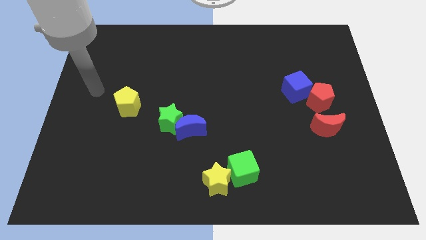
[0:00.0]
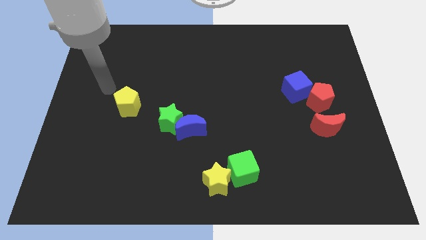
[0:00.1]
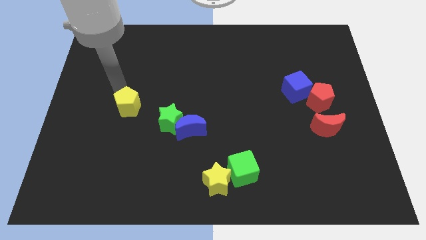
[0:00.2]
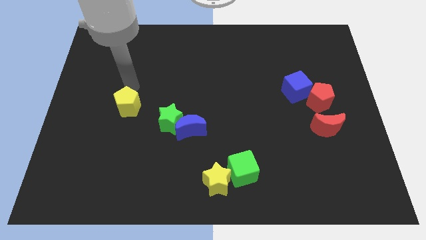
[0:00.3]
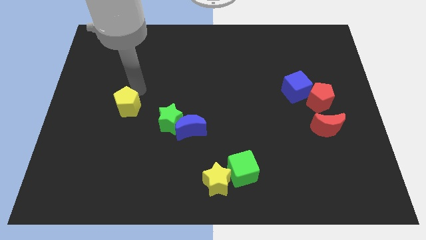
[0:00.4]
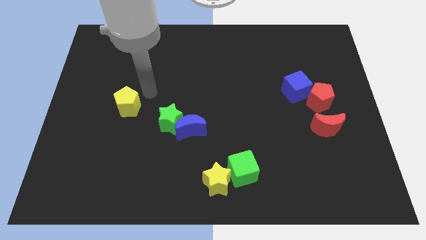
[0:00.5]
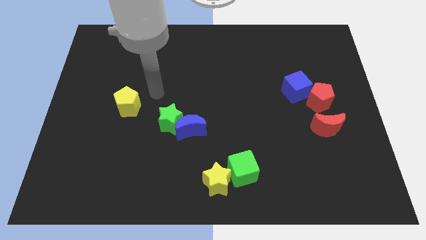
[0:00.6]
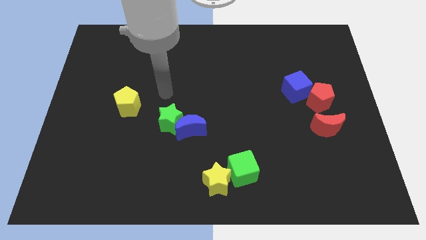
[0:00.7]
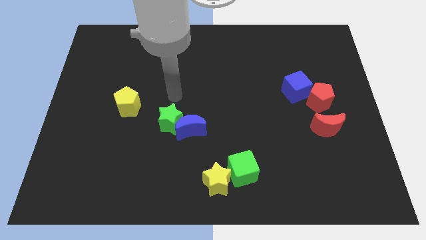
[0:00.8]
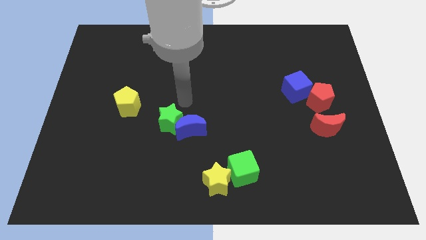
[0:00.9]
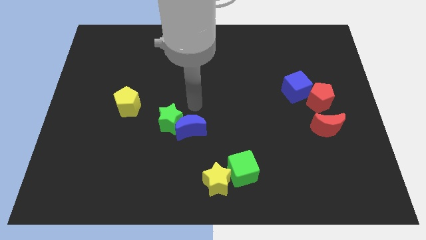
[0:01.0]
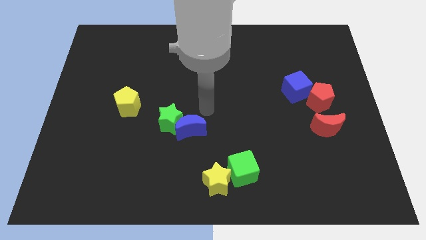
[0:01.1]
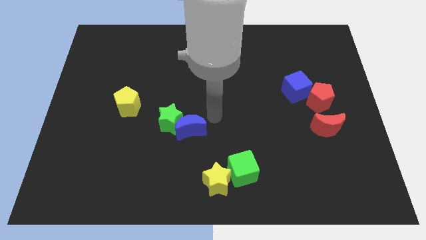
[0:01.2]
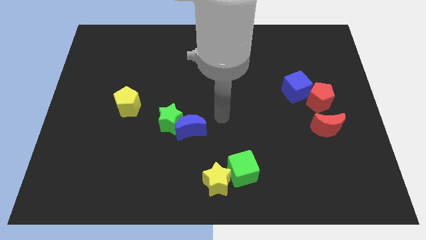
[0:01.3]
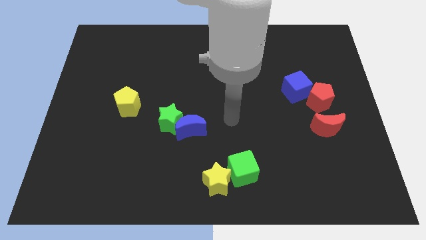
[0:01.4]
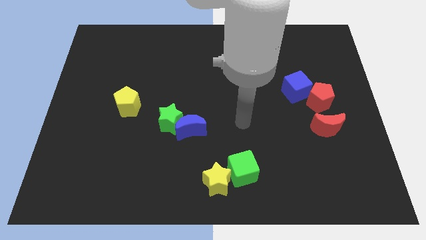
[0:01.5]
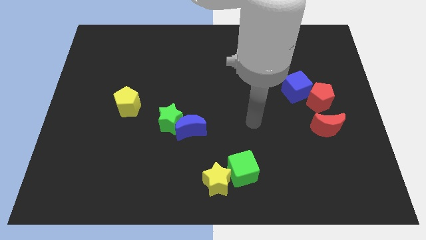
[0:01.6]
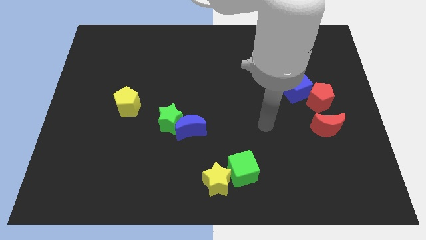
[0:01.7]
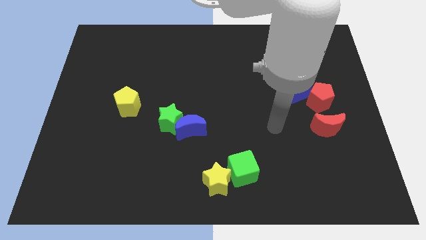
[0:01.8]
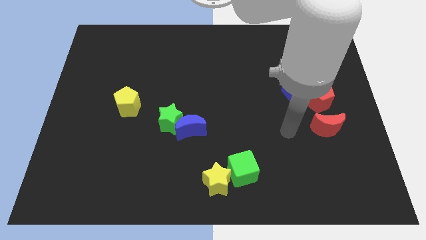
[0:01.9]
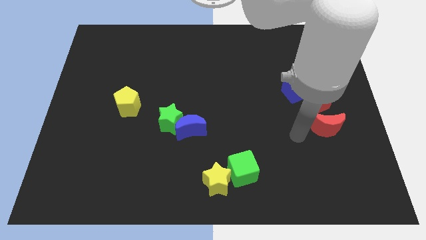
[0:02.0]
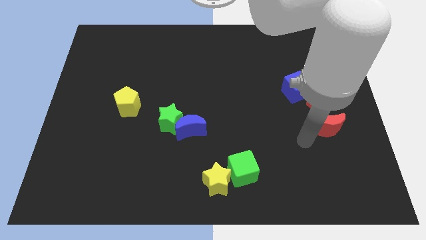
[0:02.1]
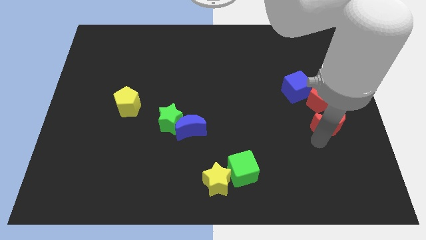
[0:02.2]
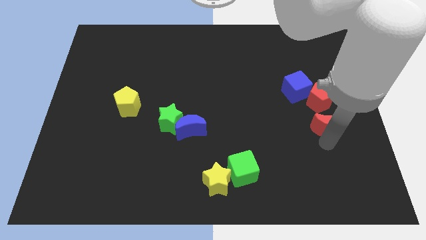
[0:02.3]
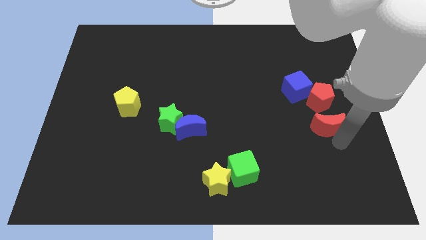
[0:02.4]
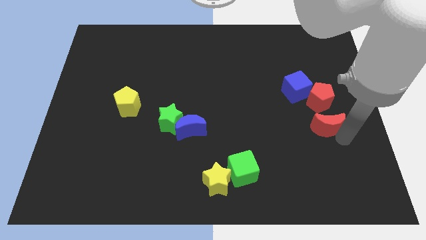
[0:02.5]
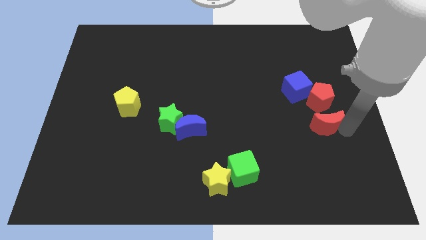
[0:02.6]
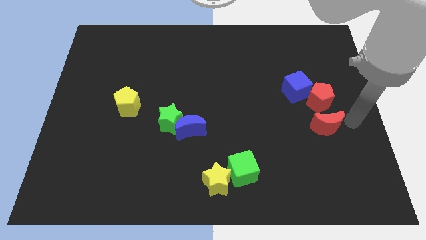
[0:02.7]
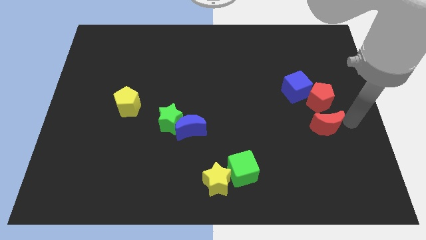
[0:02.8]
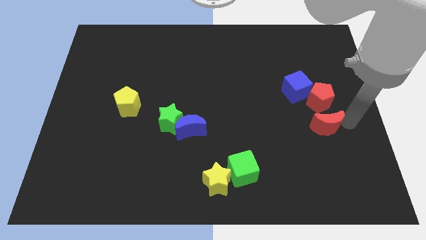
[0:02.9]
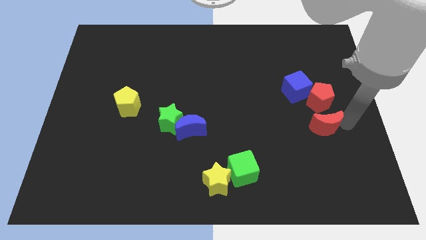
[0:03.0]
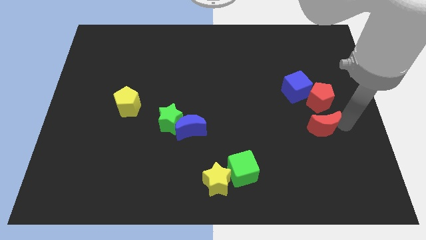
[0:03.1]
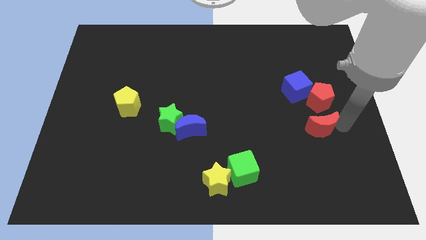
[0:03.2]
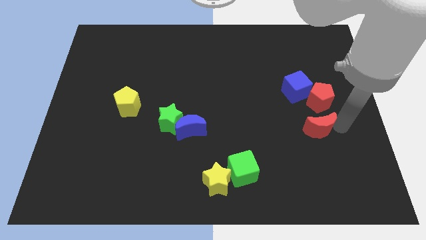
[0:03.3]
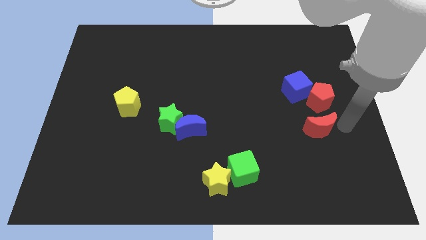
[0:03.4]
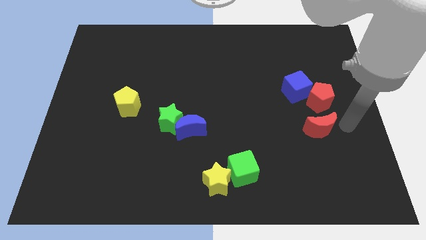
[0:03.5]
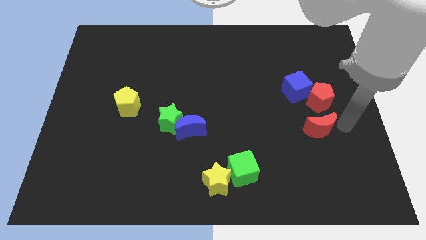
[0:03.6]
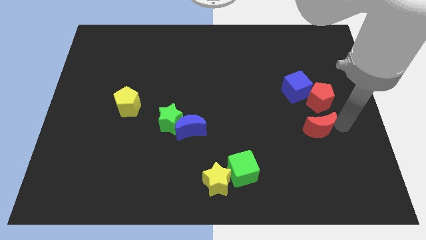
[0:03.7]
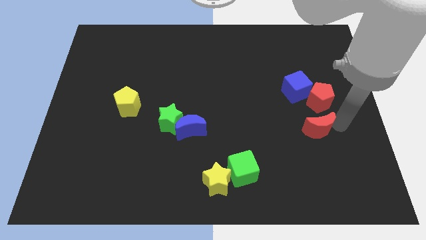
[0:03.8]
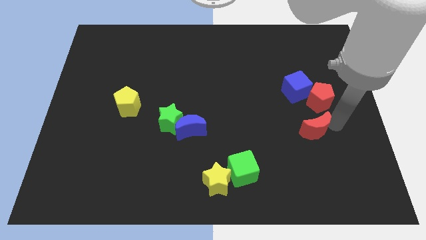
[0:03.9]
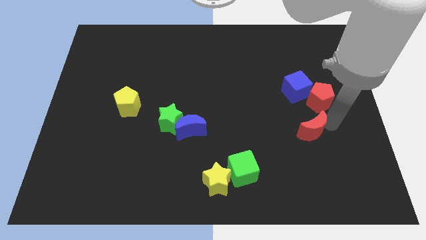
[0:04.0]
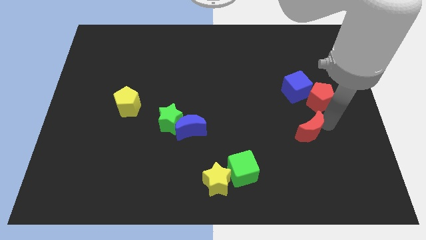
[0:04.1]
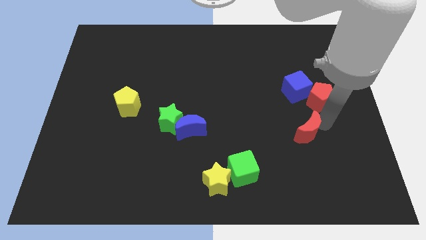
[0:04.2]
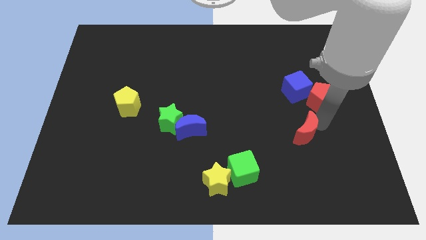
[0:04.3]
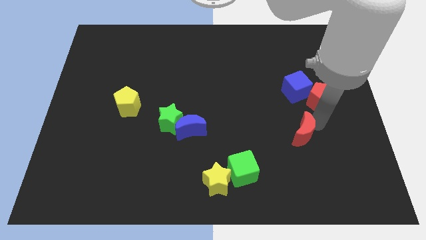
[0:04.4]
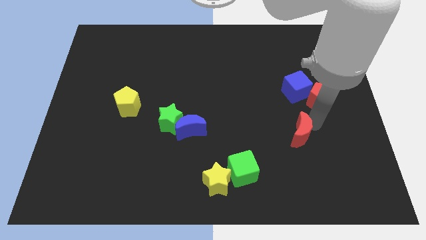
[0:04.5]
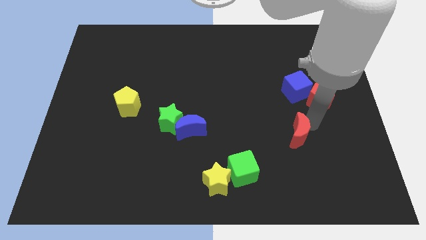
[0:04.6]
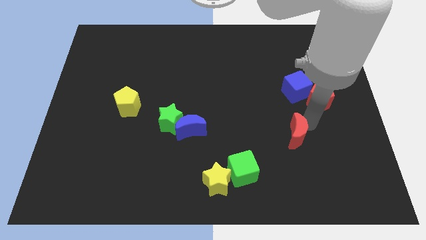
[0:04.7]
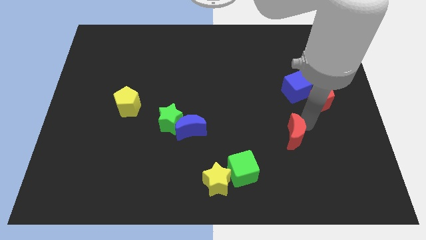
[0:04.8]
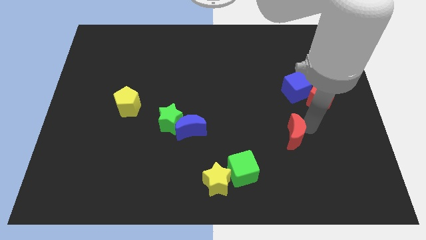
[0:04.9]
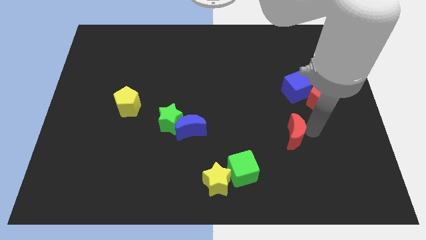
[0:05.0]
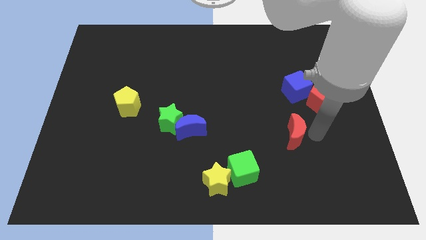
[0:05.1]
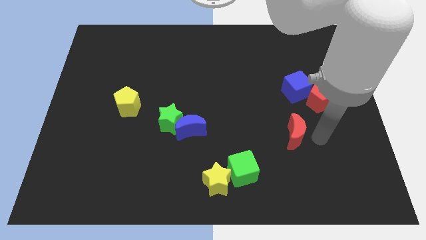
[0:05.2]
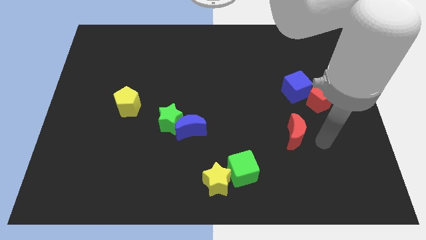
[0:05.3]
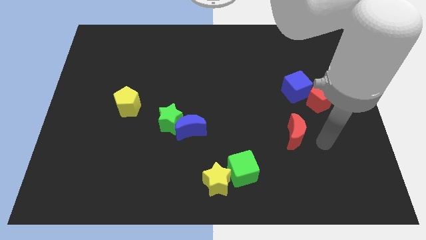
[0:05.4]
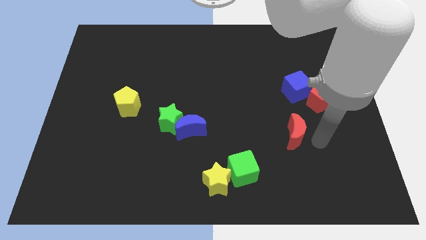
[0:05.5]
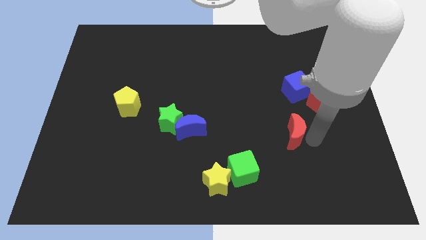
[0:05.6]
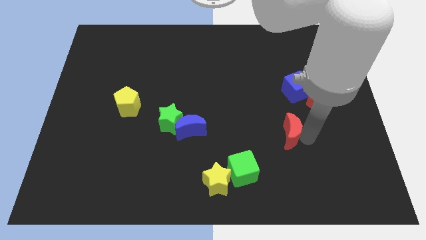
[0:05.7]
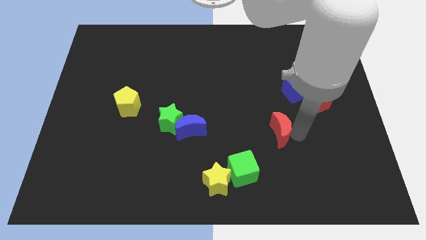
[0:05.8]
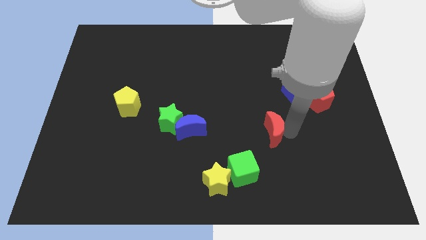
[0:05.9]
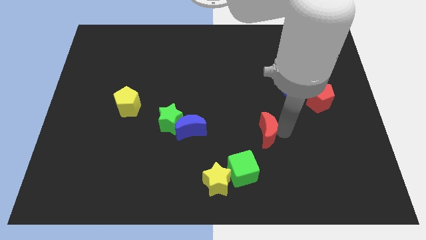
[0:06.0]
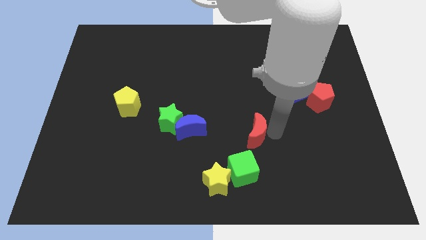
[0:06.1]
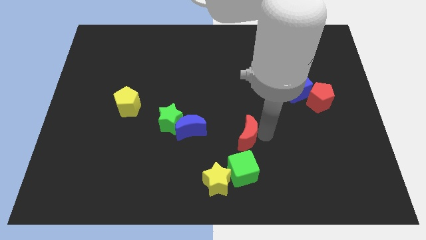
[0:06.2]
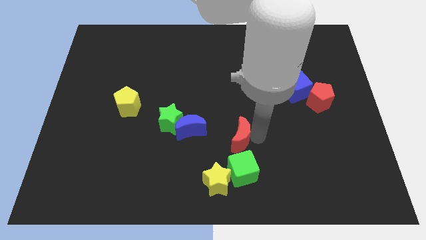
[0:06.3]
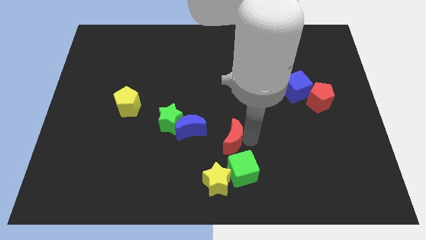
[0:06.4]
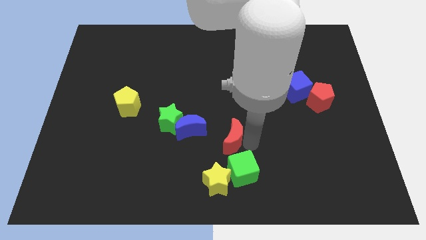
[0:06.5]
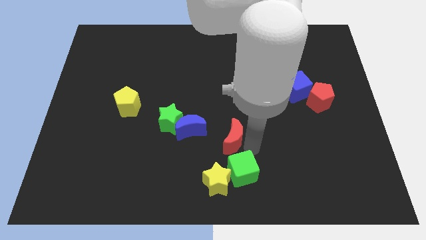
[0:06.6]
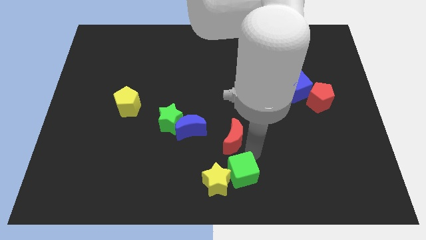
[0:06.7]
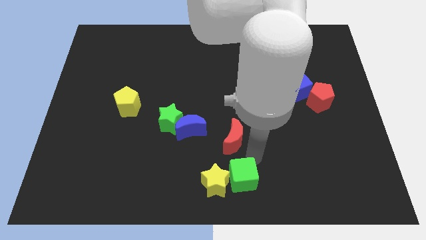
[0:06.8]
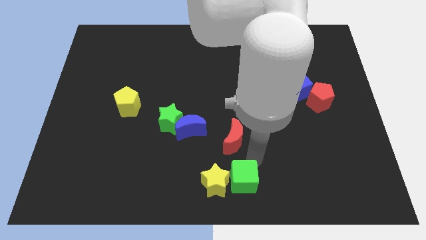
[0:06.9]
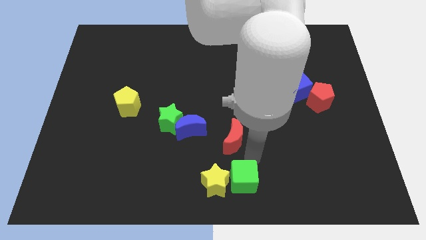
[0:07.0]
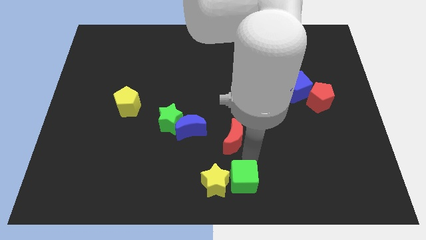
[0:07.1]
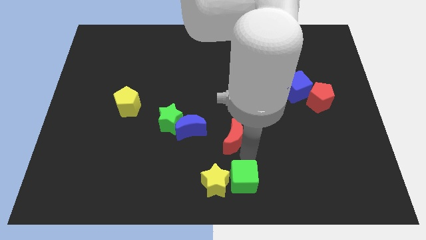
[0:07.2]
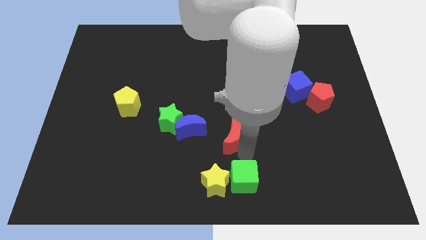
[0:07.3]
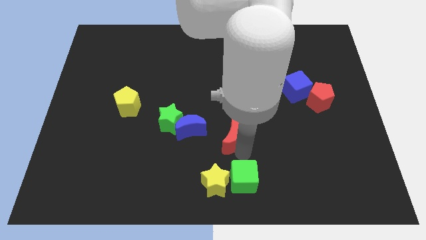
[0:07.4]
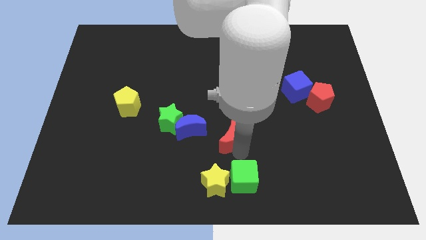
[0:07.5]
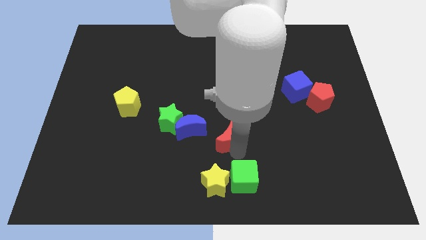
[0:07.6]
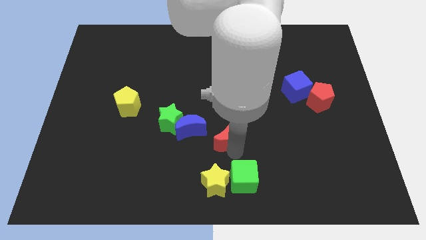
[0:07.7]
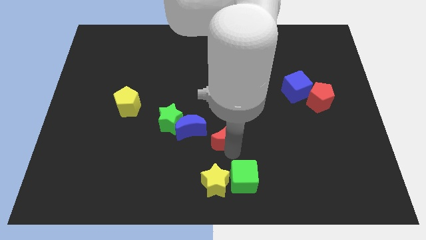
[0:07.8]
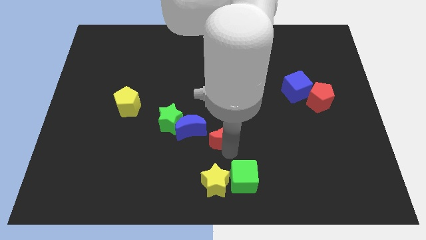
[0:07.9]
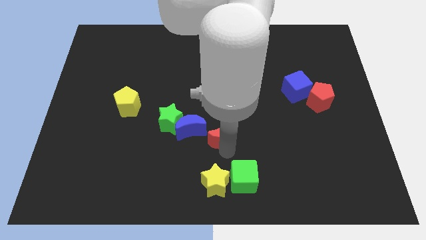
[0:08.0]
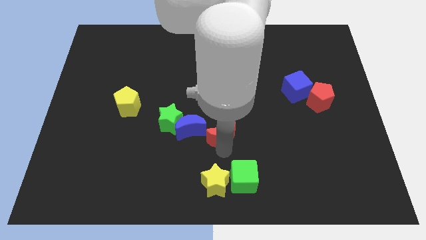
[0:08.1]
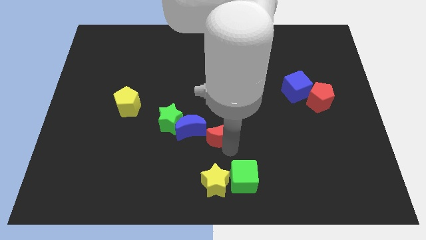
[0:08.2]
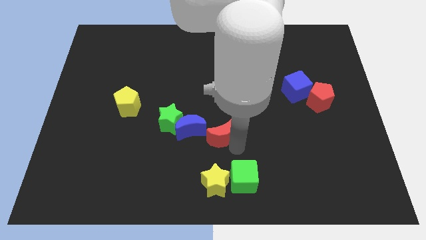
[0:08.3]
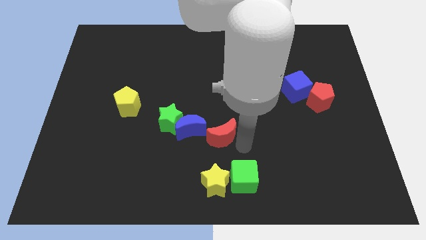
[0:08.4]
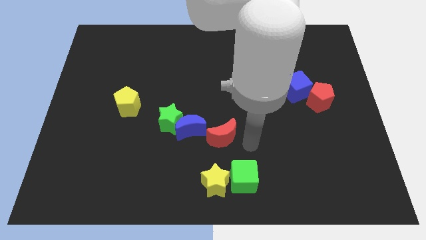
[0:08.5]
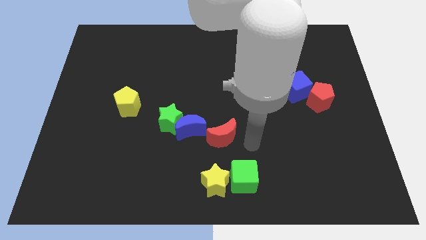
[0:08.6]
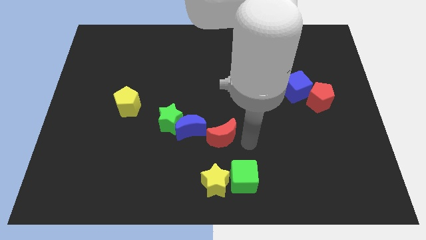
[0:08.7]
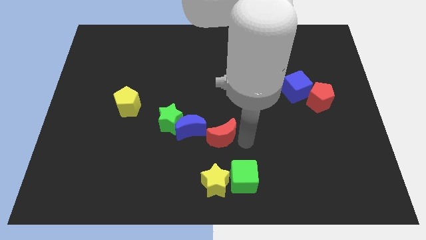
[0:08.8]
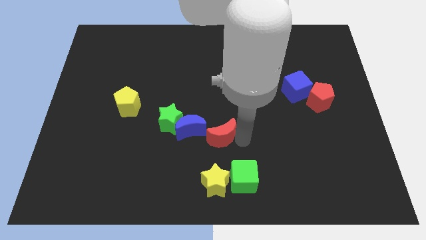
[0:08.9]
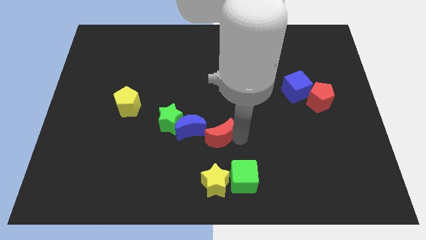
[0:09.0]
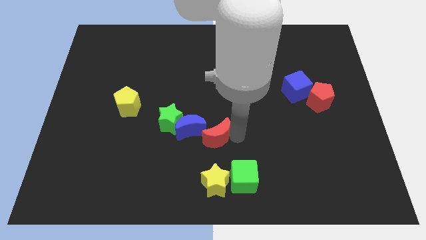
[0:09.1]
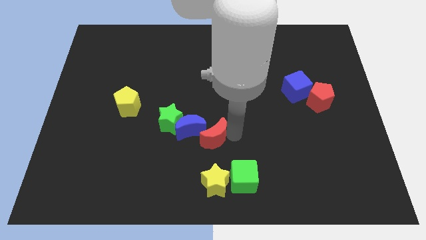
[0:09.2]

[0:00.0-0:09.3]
put the red moon next to the blue moon
